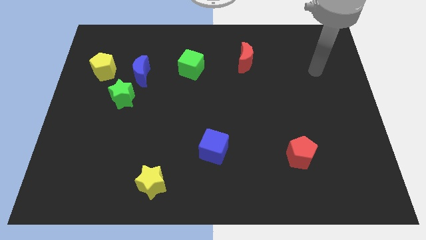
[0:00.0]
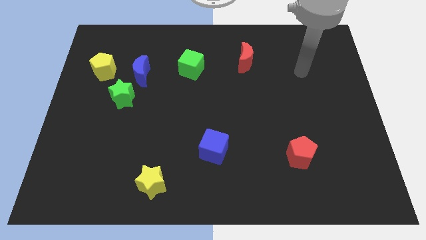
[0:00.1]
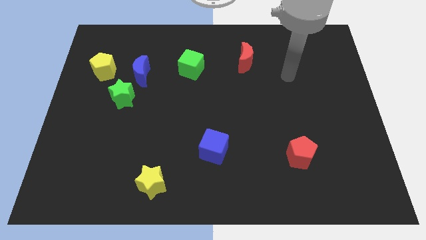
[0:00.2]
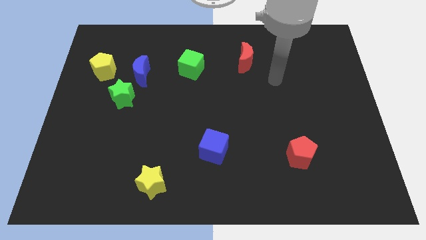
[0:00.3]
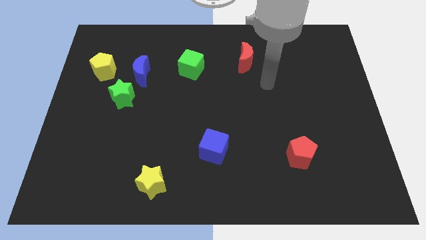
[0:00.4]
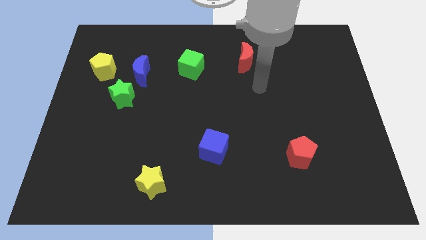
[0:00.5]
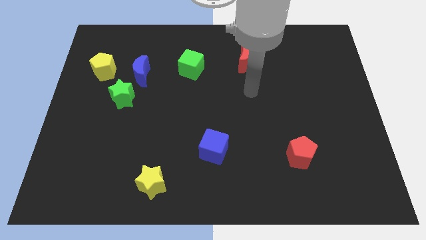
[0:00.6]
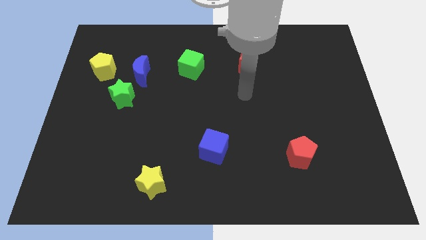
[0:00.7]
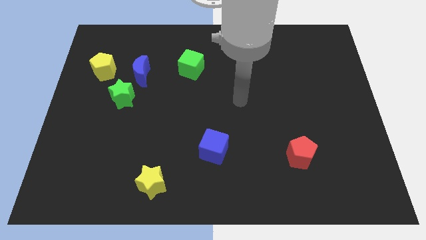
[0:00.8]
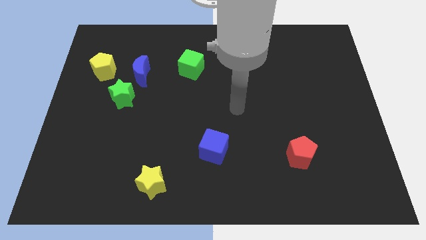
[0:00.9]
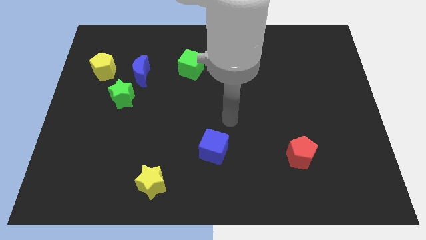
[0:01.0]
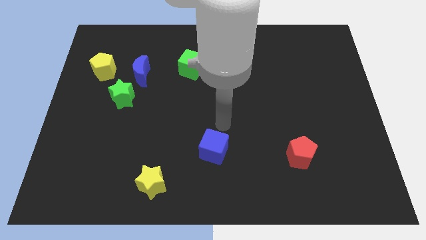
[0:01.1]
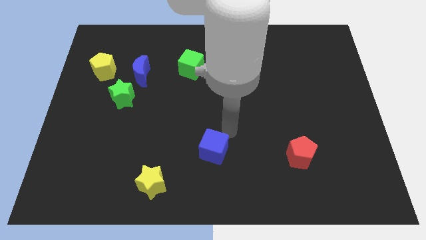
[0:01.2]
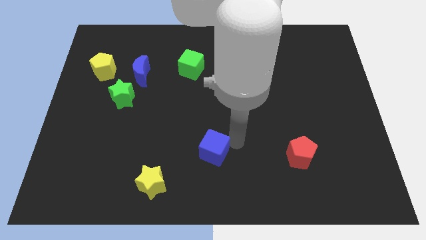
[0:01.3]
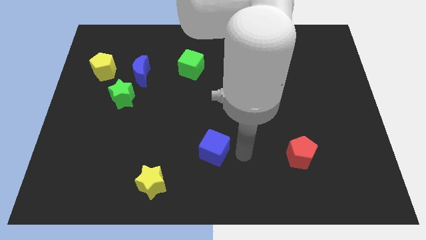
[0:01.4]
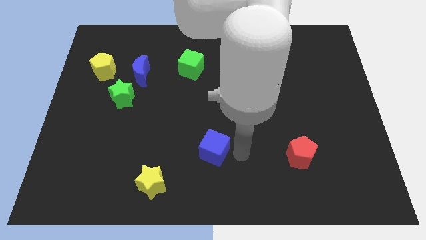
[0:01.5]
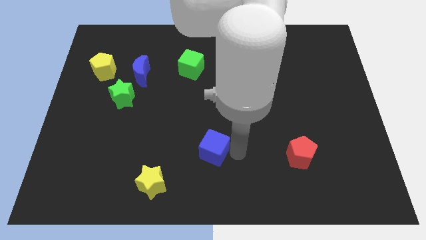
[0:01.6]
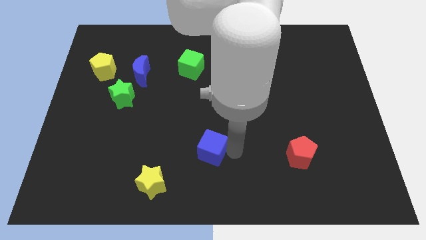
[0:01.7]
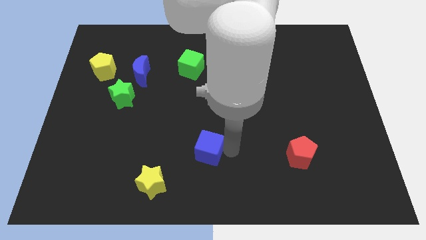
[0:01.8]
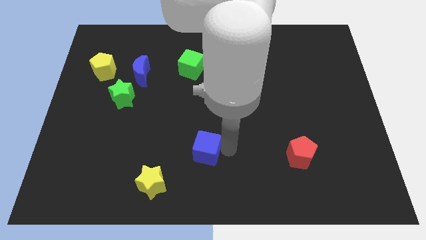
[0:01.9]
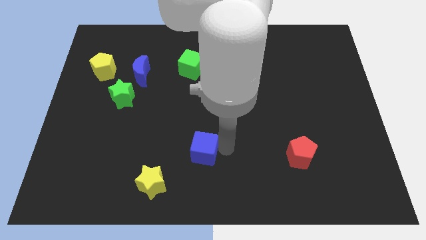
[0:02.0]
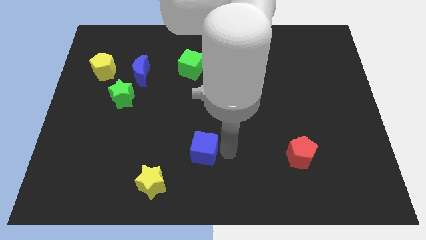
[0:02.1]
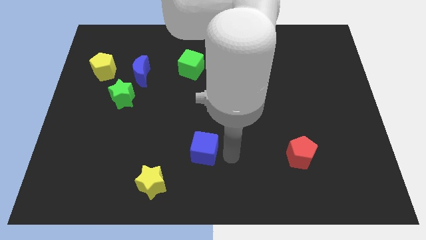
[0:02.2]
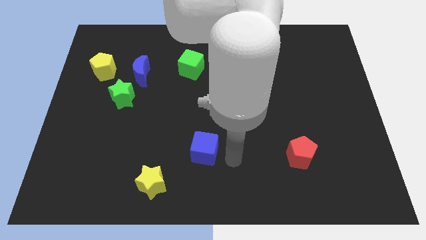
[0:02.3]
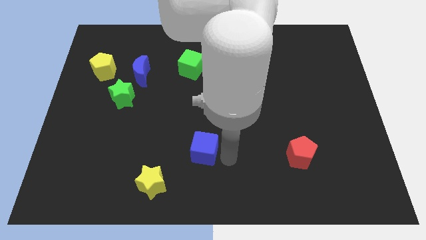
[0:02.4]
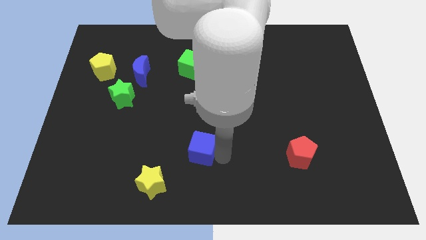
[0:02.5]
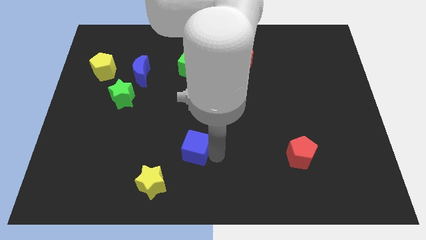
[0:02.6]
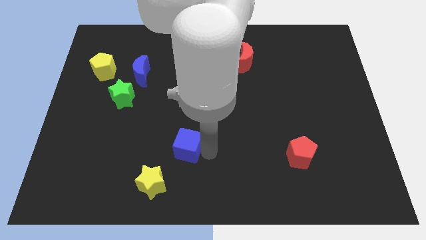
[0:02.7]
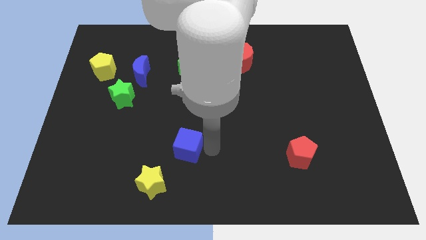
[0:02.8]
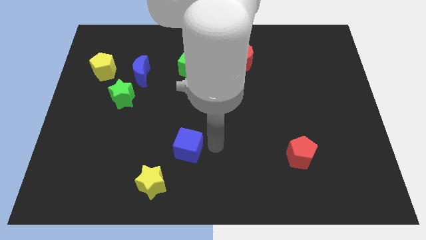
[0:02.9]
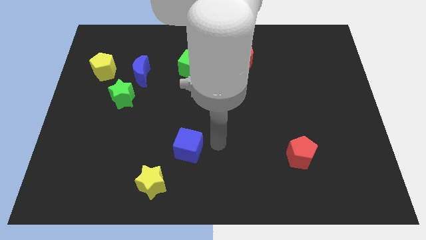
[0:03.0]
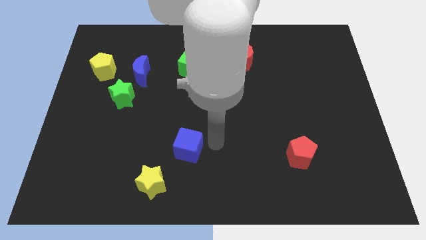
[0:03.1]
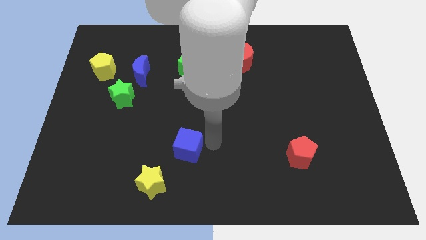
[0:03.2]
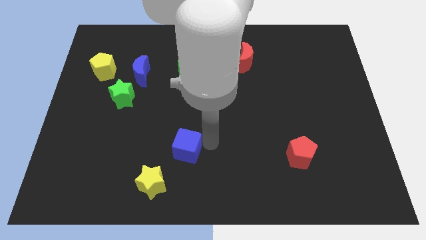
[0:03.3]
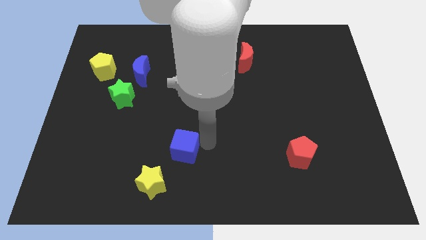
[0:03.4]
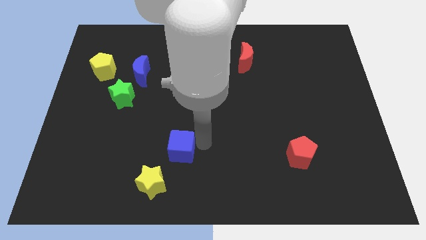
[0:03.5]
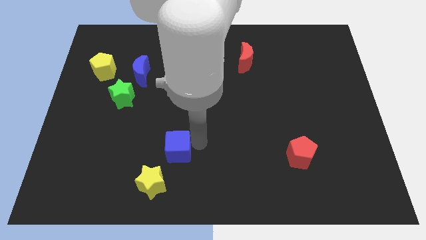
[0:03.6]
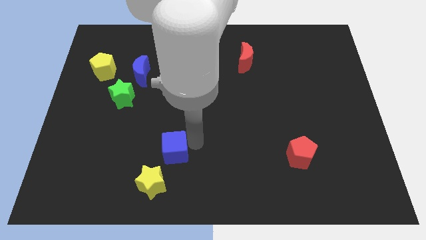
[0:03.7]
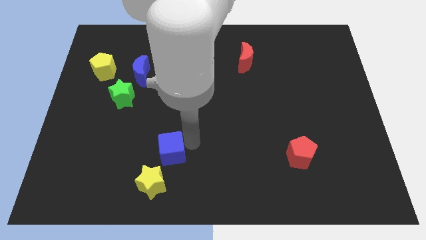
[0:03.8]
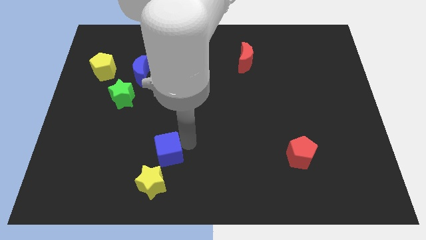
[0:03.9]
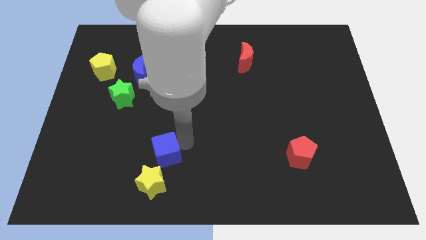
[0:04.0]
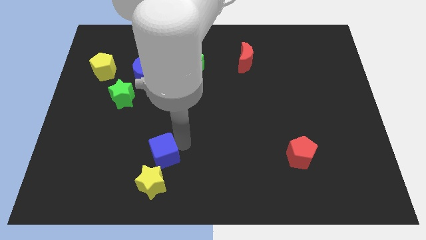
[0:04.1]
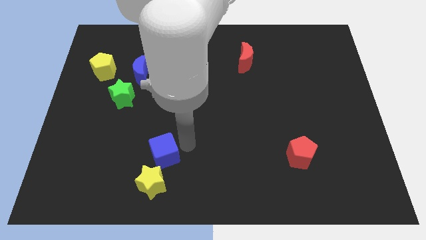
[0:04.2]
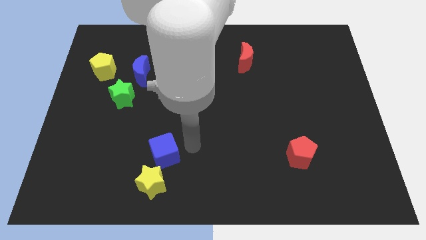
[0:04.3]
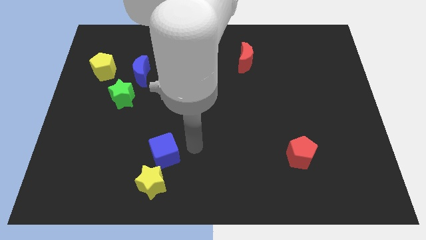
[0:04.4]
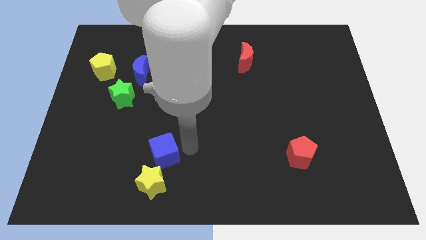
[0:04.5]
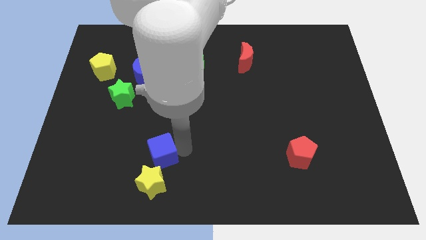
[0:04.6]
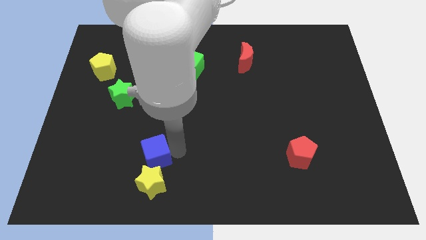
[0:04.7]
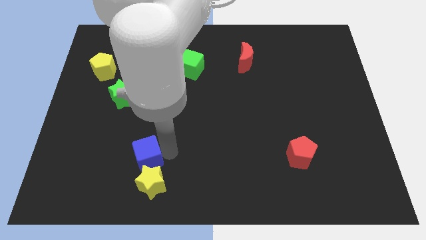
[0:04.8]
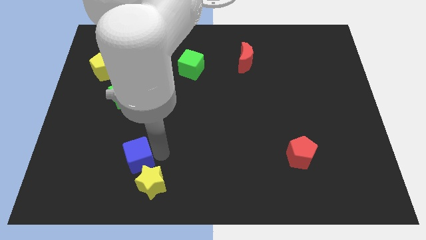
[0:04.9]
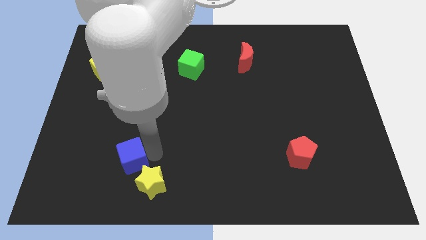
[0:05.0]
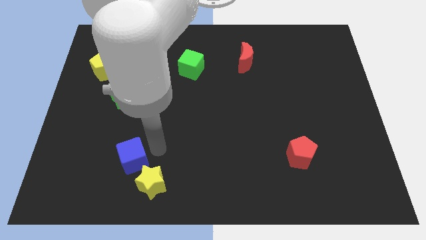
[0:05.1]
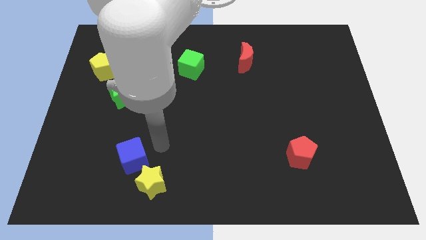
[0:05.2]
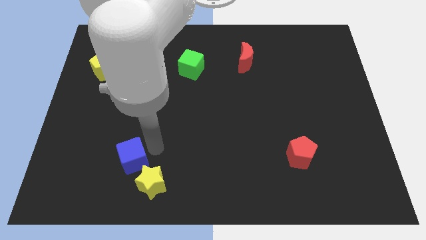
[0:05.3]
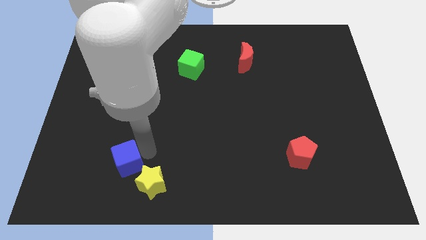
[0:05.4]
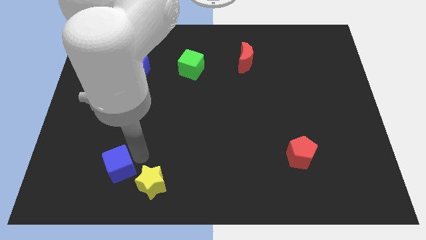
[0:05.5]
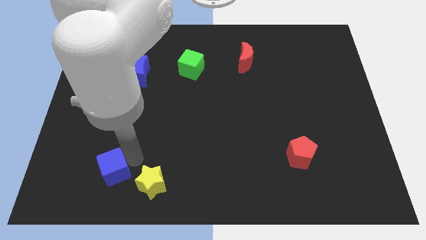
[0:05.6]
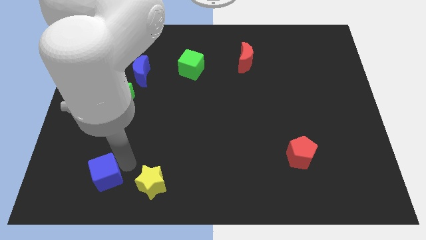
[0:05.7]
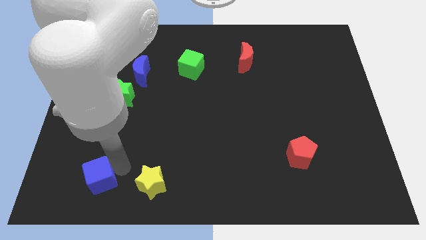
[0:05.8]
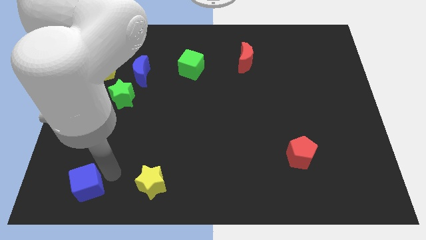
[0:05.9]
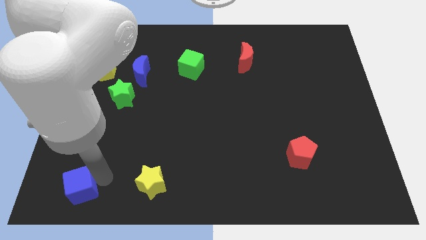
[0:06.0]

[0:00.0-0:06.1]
move the blue cube to the lower left corner
